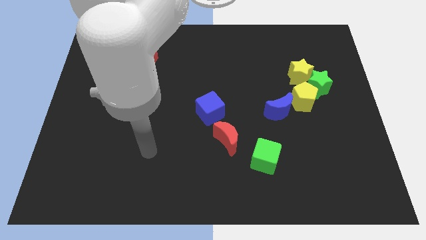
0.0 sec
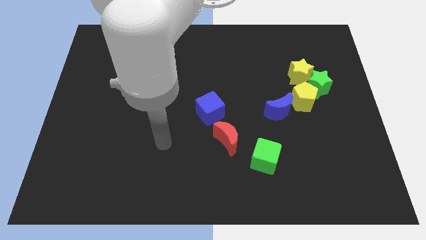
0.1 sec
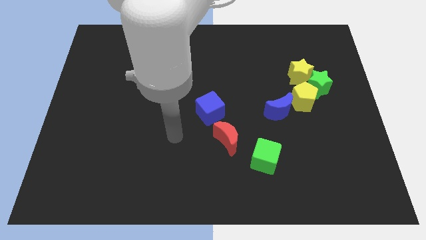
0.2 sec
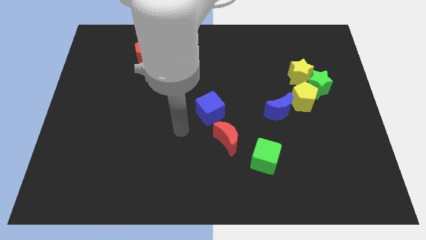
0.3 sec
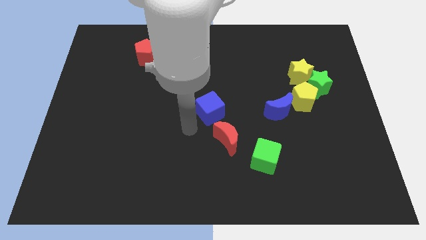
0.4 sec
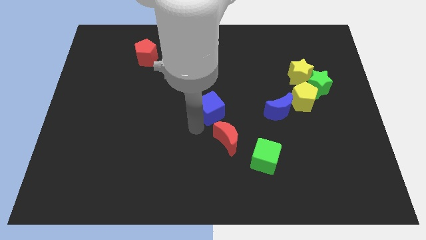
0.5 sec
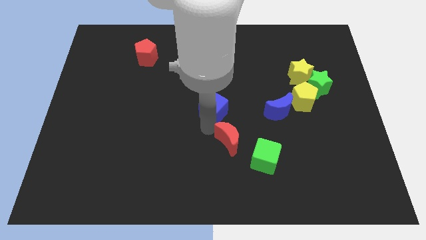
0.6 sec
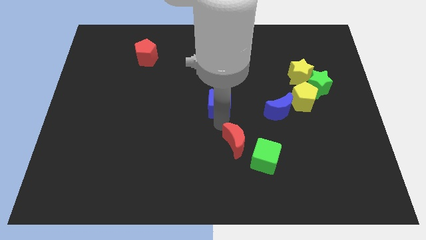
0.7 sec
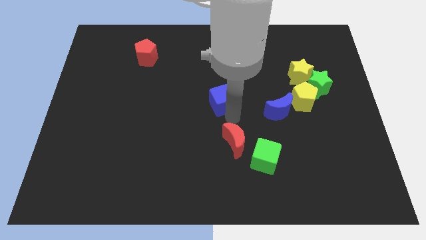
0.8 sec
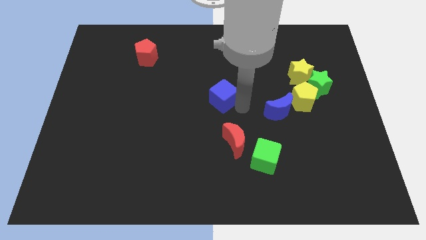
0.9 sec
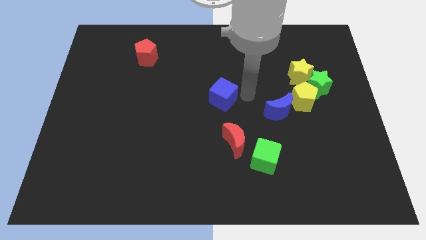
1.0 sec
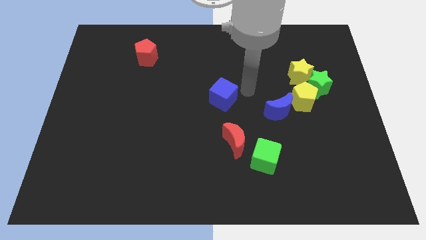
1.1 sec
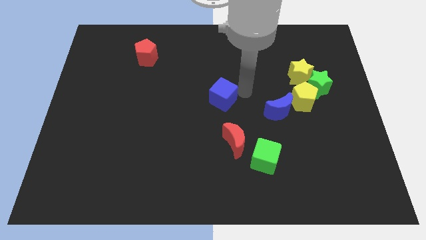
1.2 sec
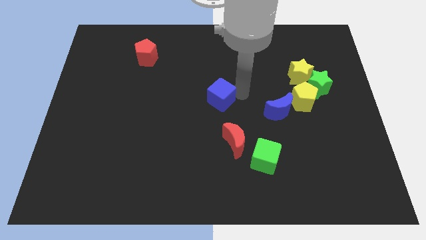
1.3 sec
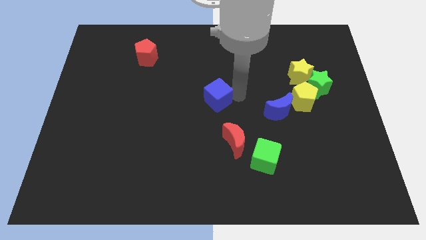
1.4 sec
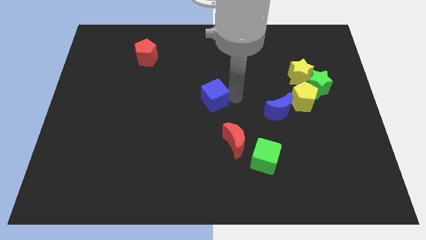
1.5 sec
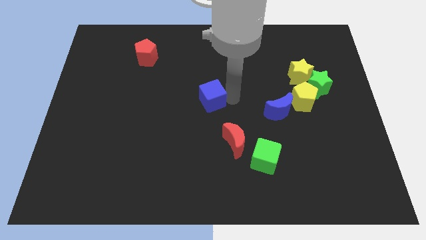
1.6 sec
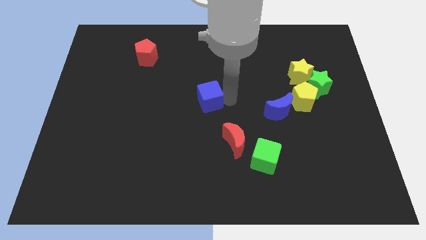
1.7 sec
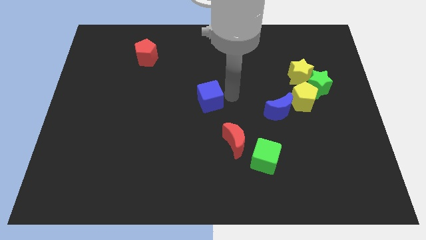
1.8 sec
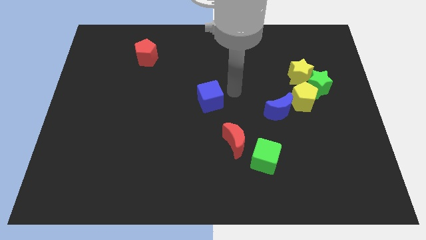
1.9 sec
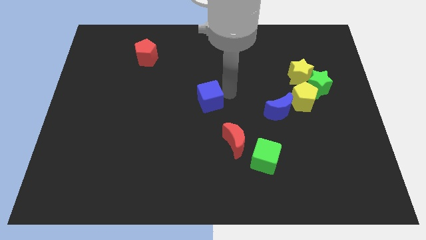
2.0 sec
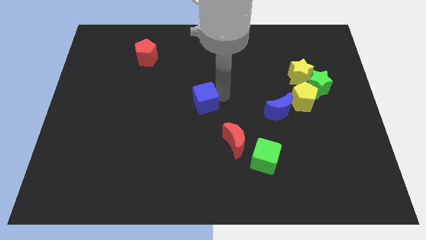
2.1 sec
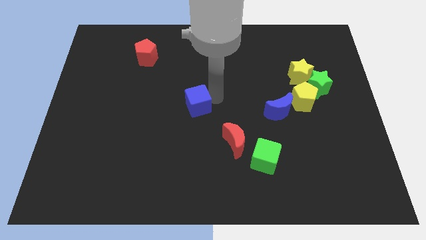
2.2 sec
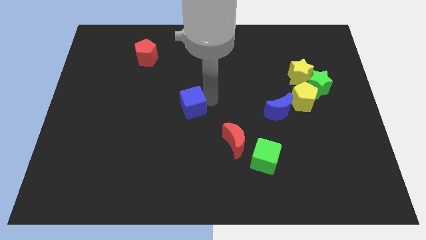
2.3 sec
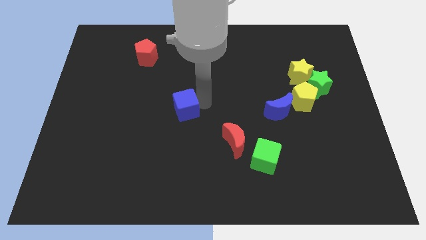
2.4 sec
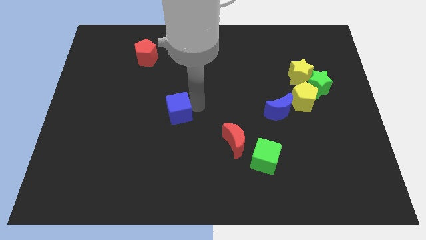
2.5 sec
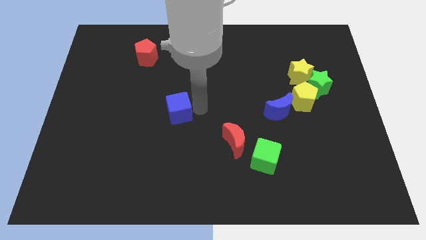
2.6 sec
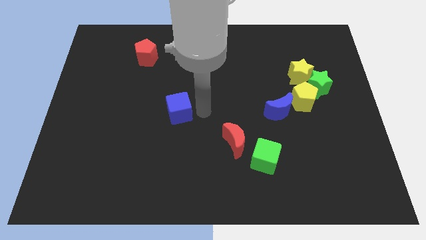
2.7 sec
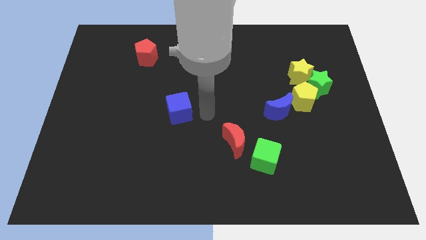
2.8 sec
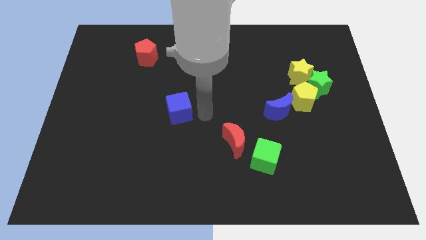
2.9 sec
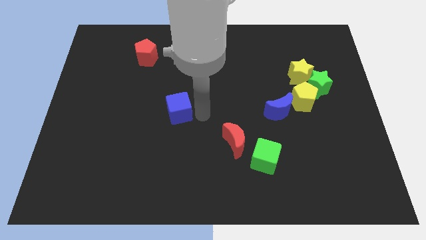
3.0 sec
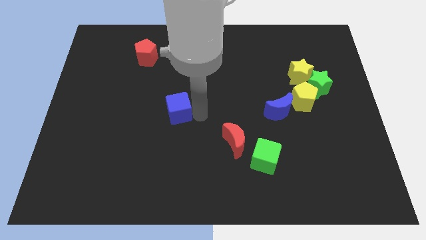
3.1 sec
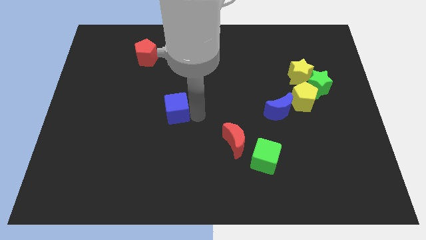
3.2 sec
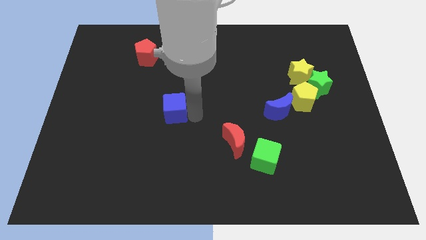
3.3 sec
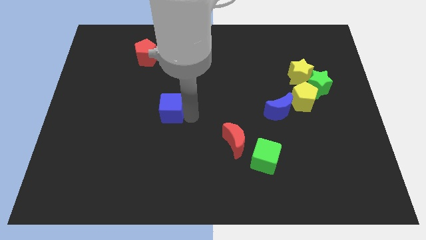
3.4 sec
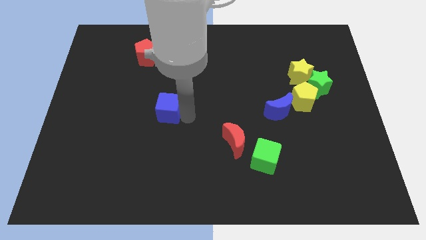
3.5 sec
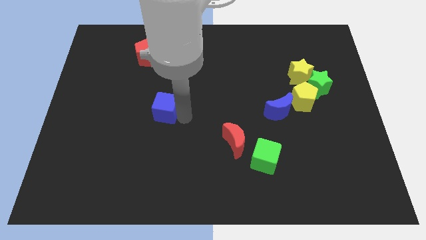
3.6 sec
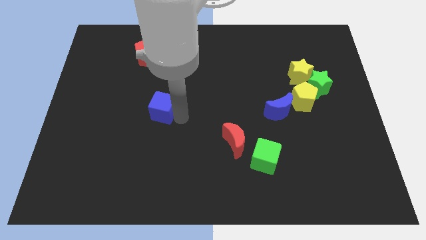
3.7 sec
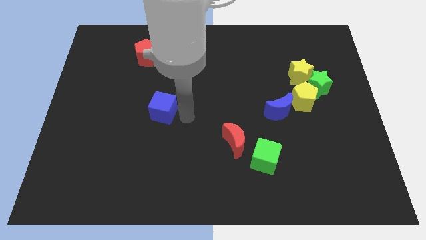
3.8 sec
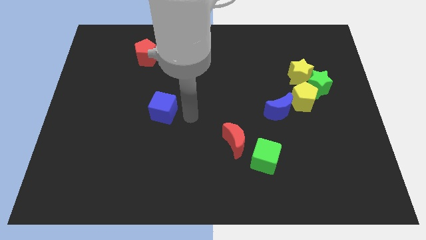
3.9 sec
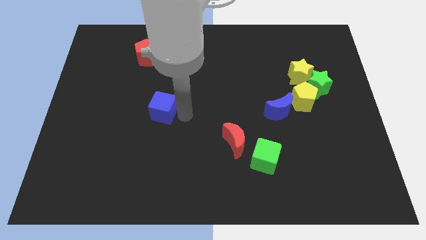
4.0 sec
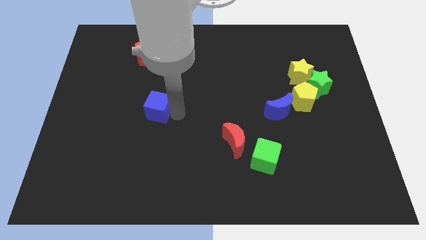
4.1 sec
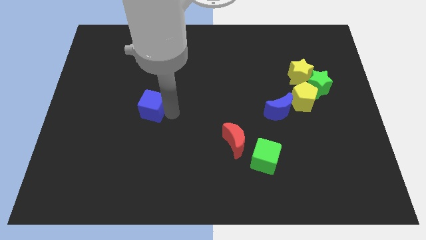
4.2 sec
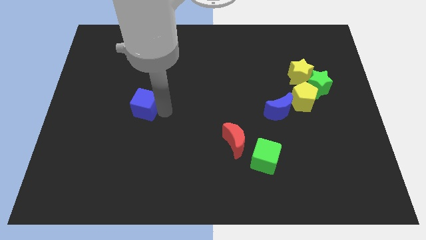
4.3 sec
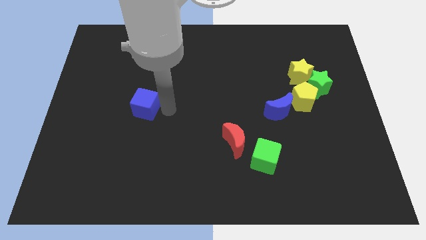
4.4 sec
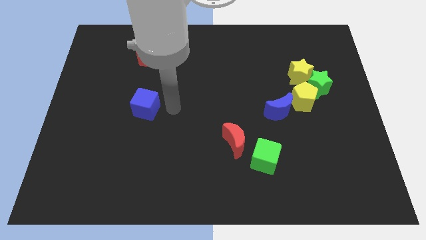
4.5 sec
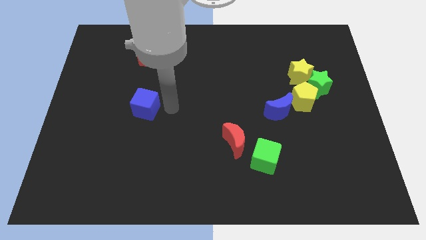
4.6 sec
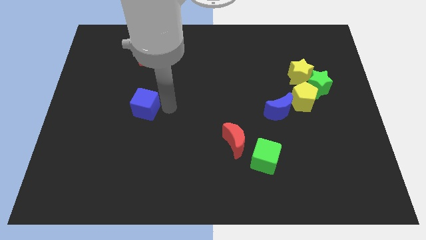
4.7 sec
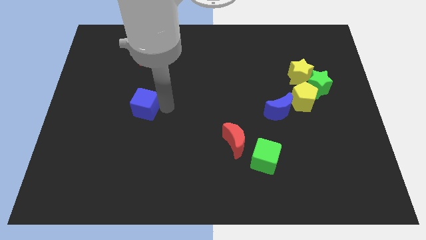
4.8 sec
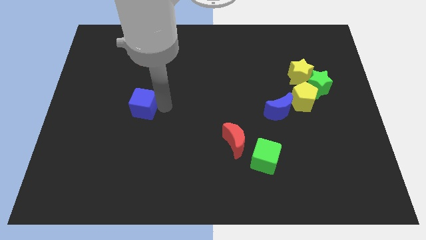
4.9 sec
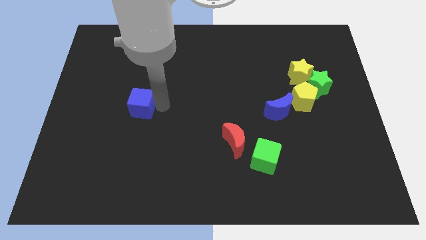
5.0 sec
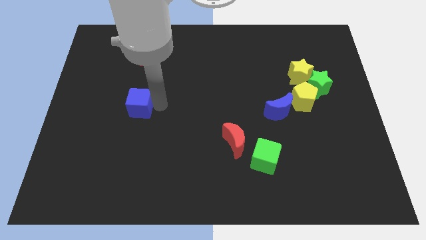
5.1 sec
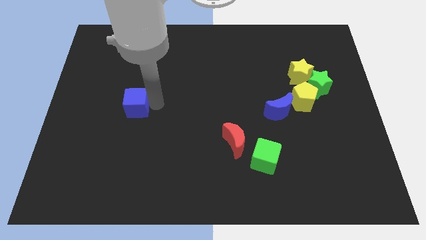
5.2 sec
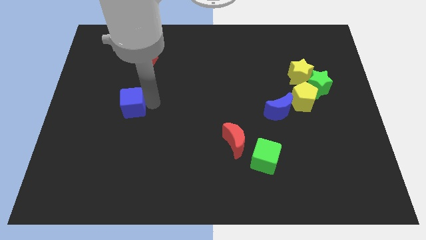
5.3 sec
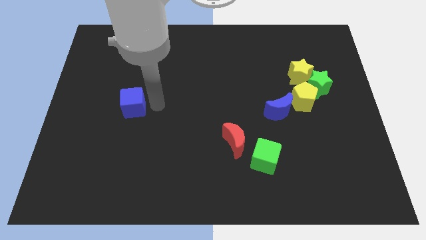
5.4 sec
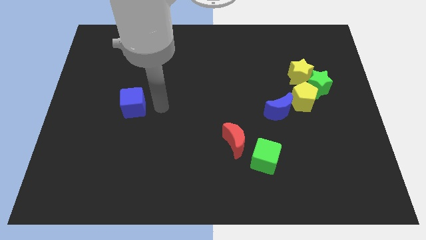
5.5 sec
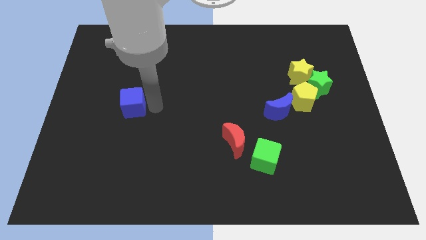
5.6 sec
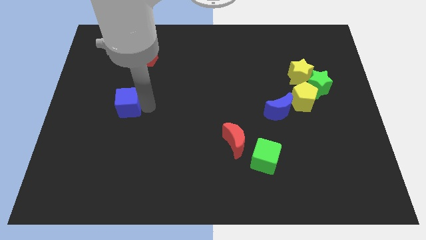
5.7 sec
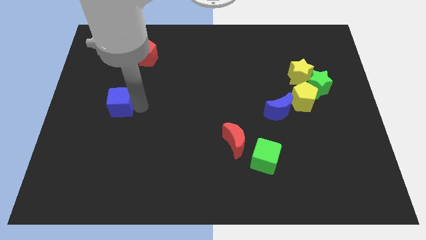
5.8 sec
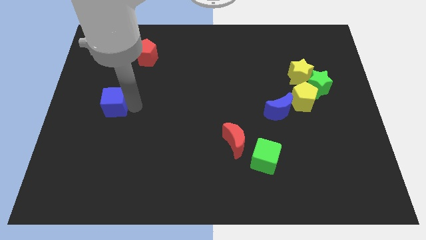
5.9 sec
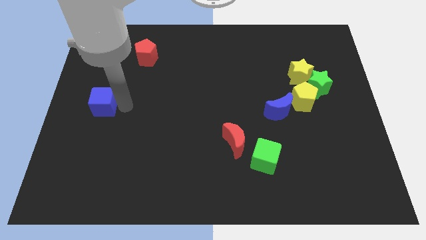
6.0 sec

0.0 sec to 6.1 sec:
push the blue cube to the left side of the board

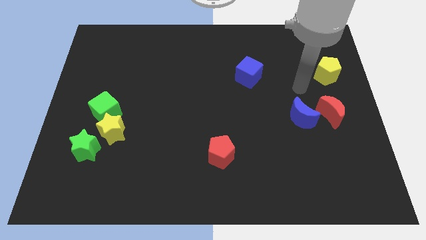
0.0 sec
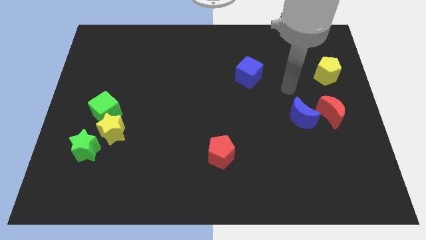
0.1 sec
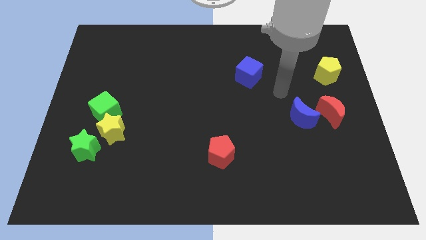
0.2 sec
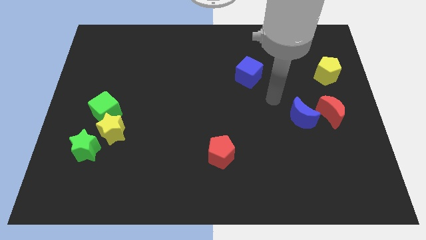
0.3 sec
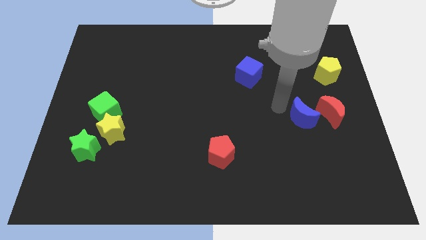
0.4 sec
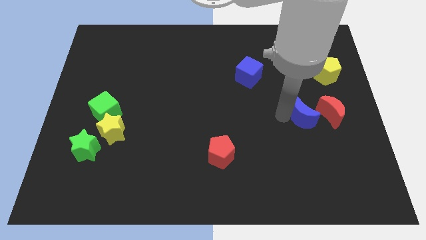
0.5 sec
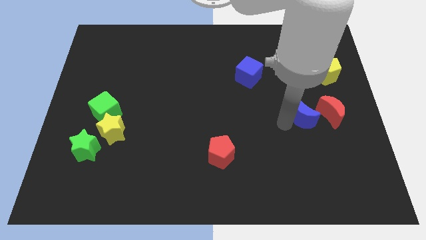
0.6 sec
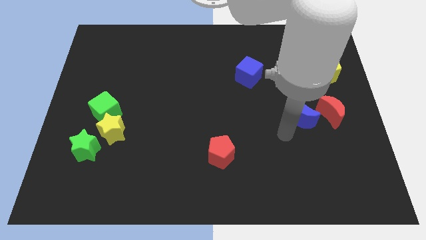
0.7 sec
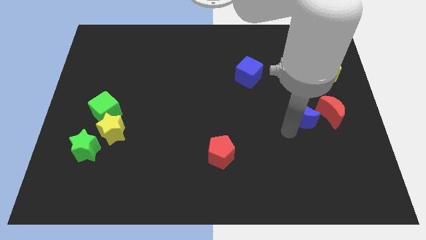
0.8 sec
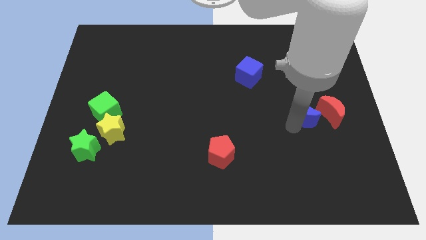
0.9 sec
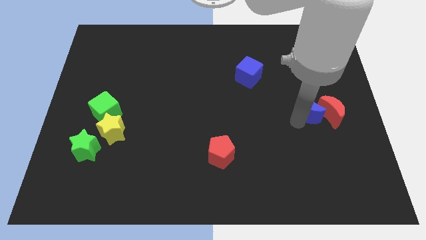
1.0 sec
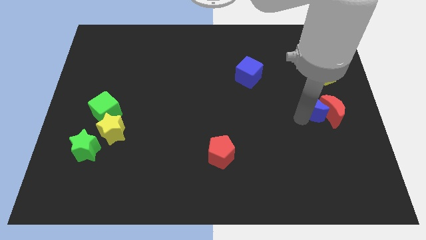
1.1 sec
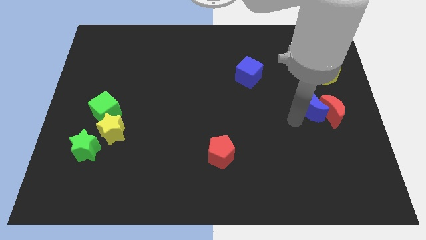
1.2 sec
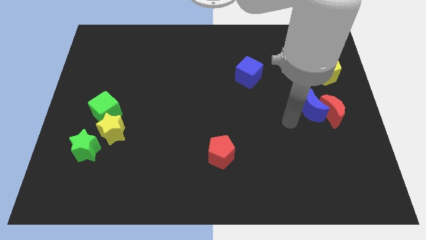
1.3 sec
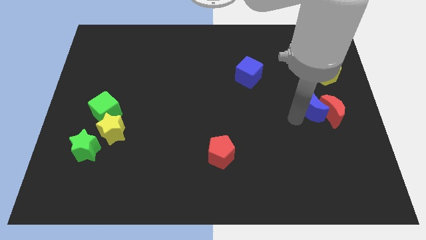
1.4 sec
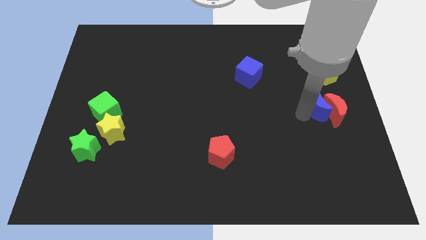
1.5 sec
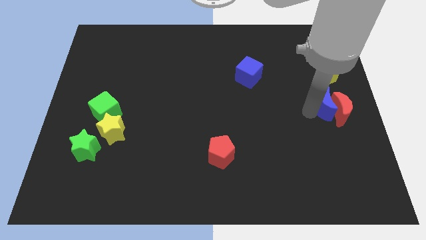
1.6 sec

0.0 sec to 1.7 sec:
put the blue moon to the right side
